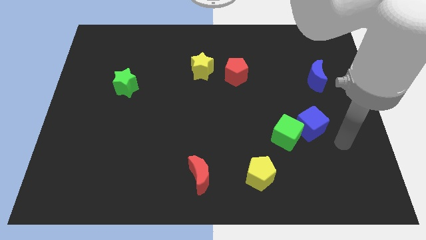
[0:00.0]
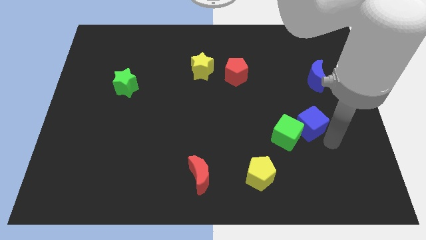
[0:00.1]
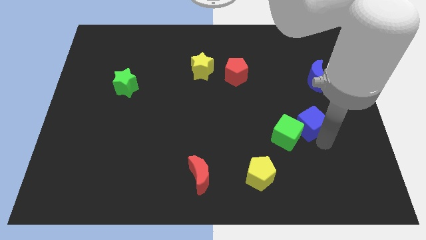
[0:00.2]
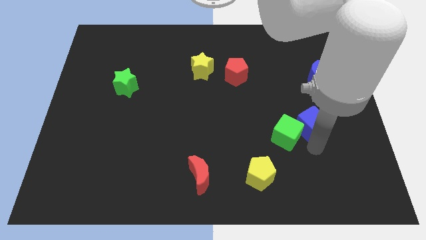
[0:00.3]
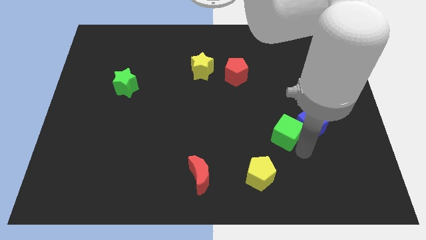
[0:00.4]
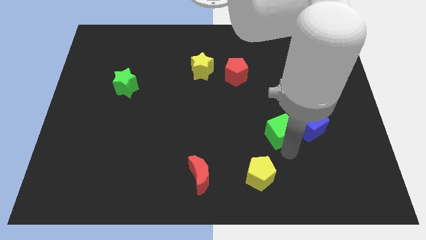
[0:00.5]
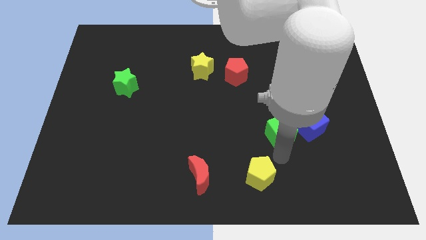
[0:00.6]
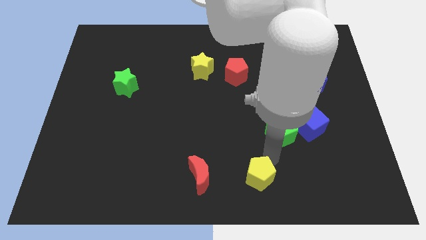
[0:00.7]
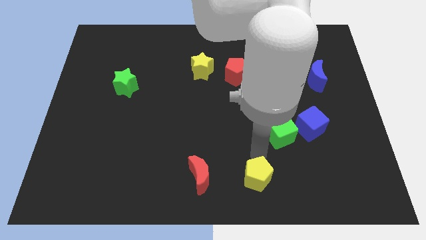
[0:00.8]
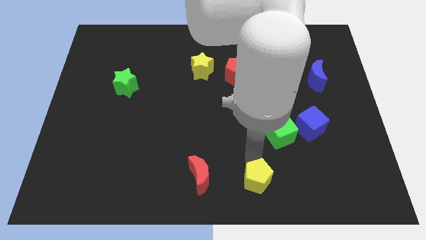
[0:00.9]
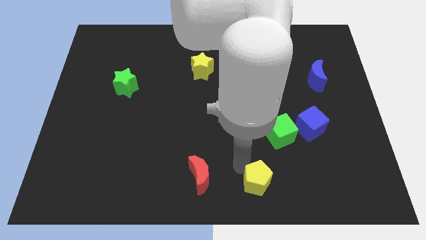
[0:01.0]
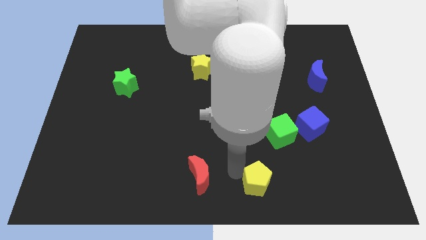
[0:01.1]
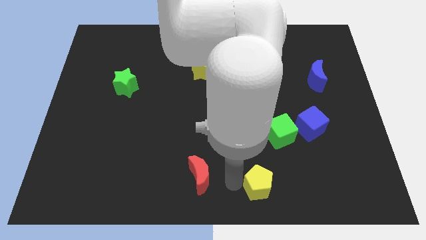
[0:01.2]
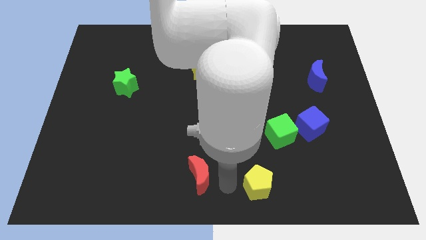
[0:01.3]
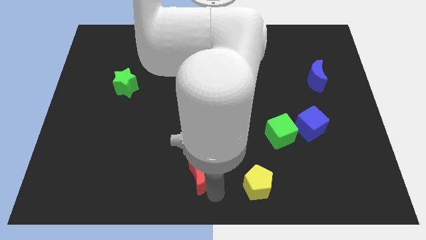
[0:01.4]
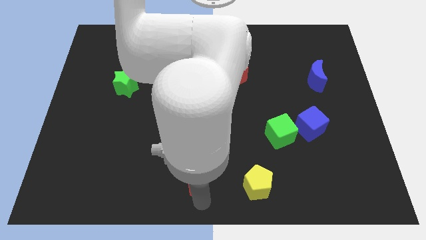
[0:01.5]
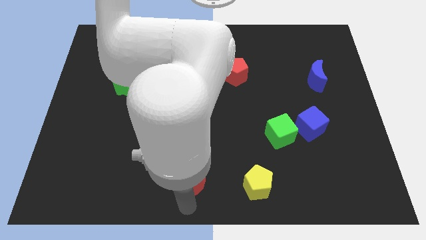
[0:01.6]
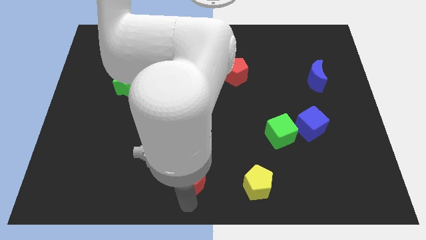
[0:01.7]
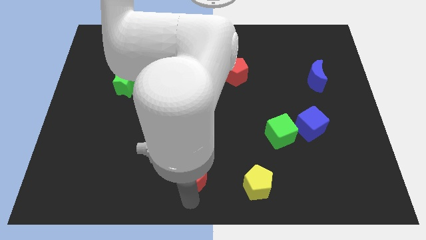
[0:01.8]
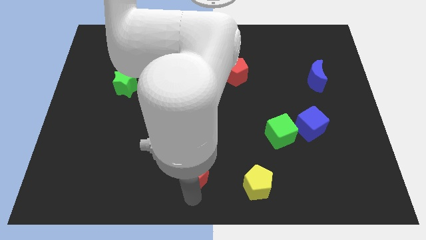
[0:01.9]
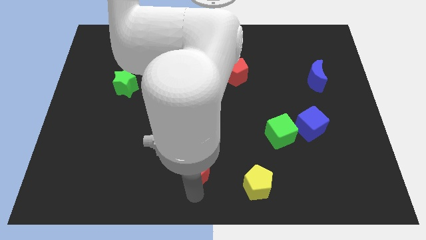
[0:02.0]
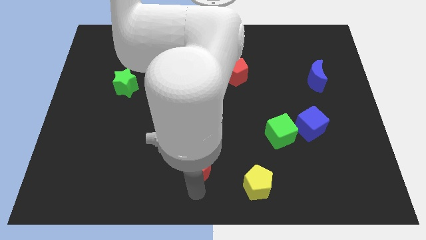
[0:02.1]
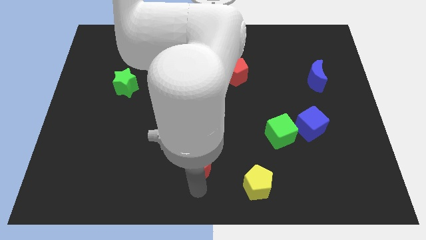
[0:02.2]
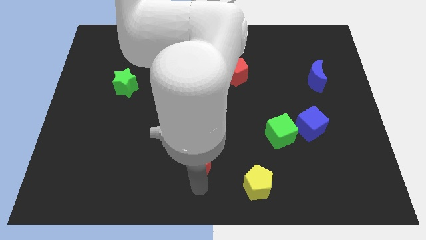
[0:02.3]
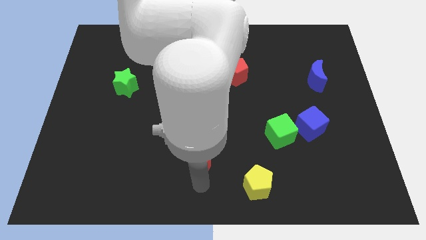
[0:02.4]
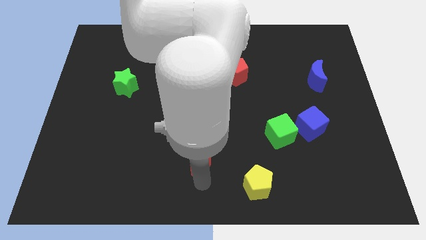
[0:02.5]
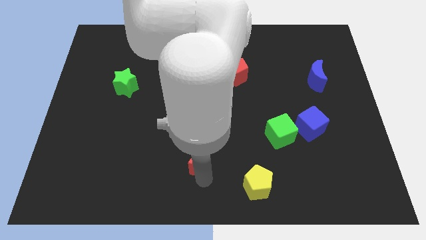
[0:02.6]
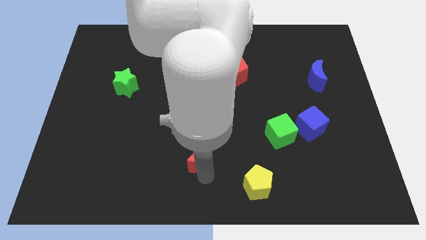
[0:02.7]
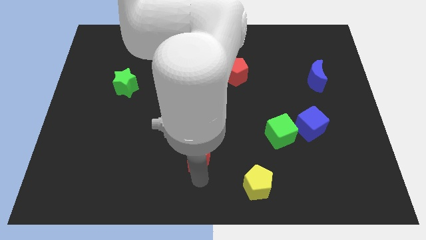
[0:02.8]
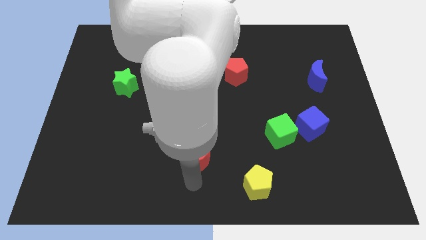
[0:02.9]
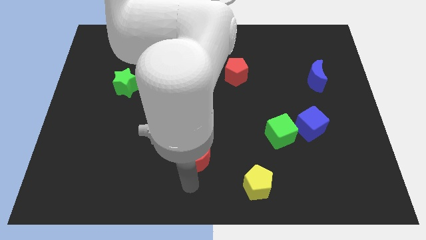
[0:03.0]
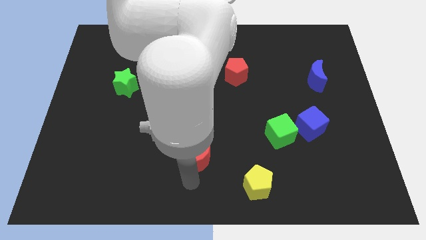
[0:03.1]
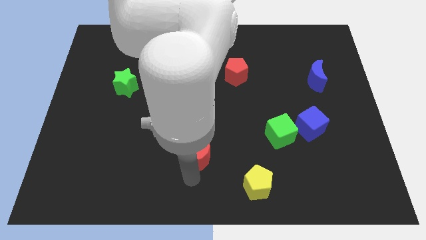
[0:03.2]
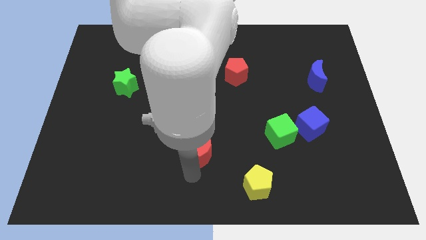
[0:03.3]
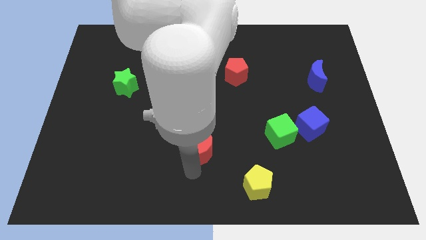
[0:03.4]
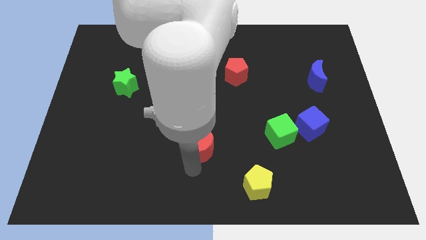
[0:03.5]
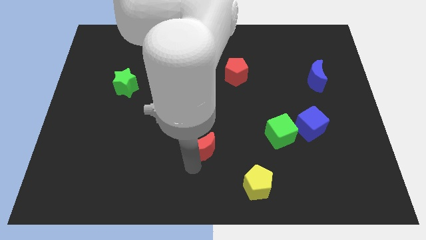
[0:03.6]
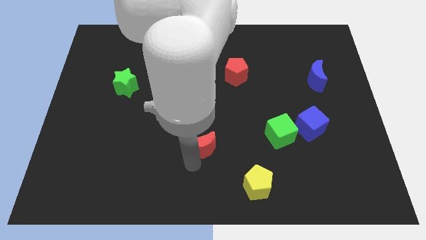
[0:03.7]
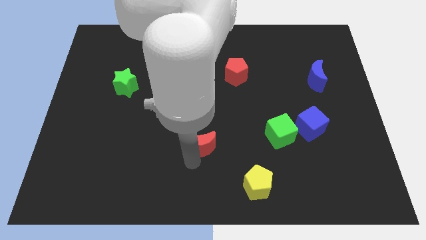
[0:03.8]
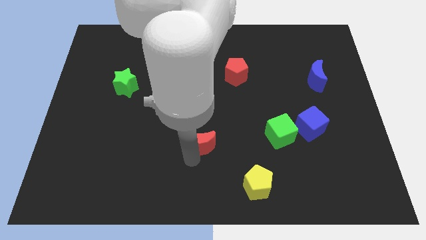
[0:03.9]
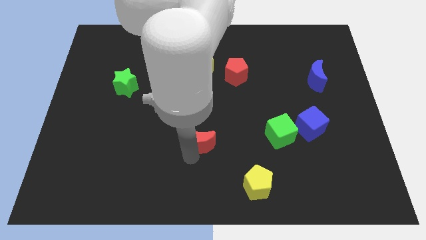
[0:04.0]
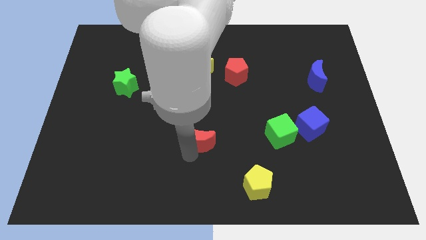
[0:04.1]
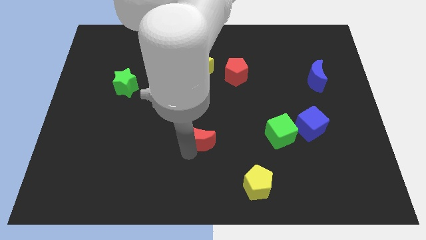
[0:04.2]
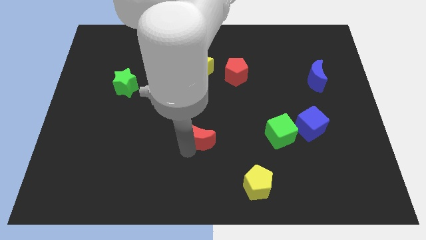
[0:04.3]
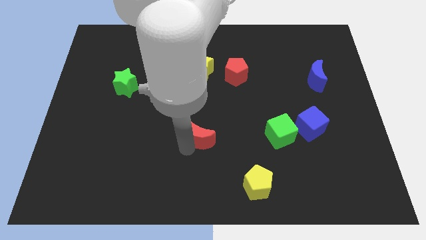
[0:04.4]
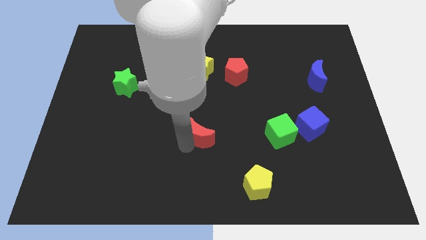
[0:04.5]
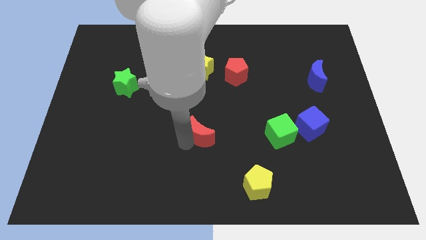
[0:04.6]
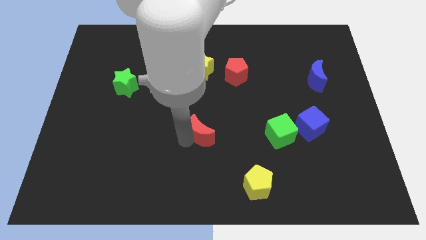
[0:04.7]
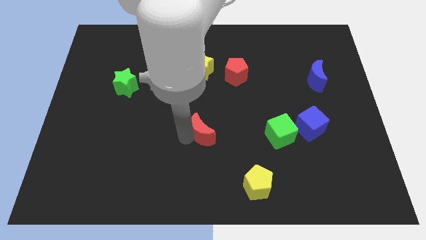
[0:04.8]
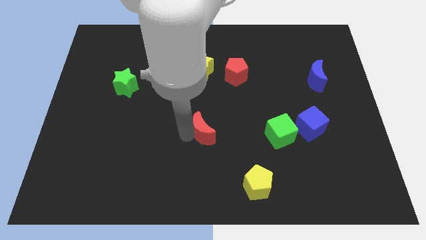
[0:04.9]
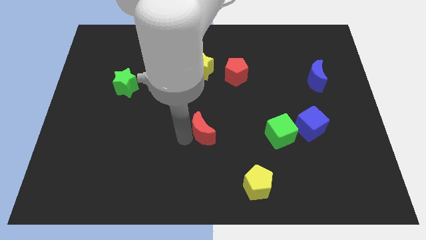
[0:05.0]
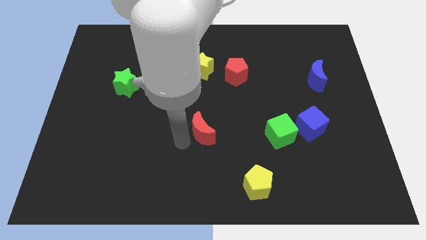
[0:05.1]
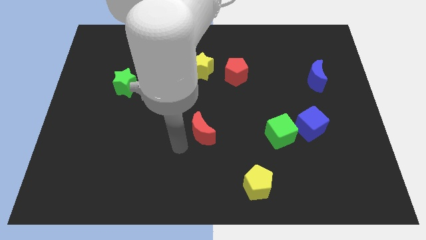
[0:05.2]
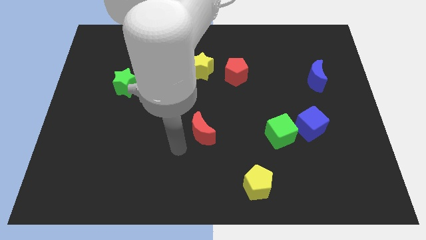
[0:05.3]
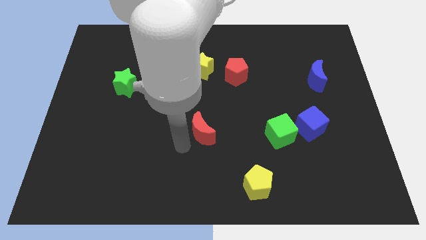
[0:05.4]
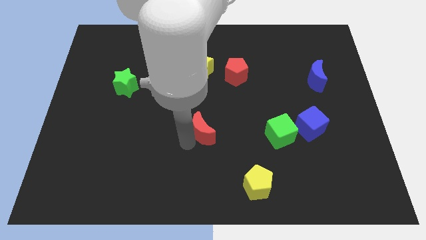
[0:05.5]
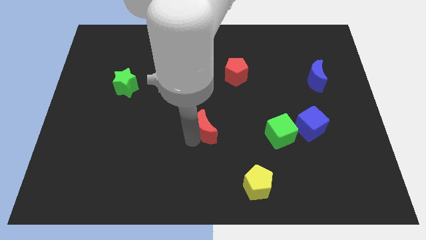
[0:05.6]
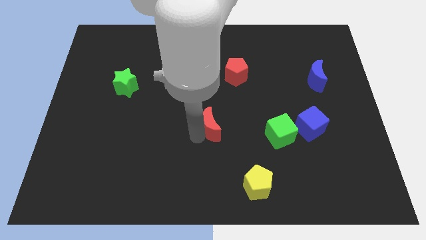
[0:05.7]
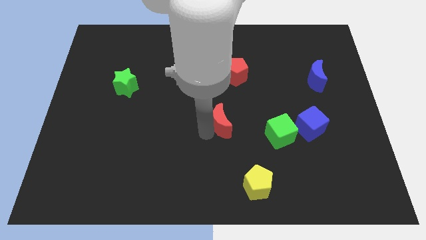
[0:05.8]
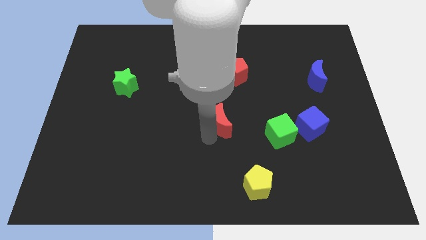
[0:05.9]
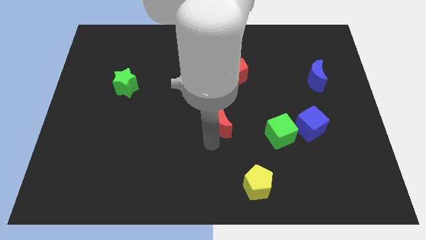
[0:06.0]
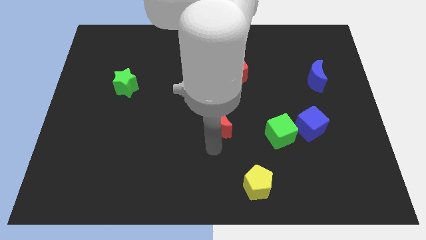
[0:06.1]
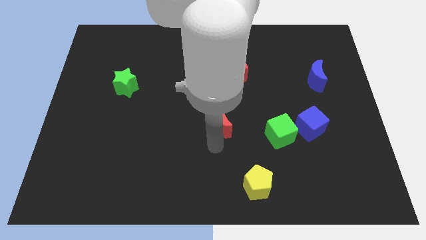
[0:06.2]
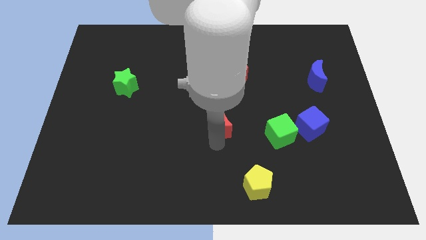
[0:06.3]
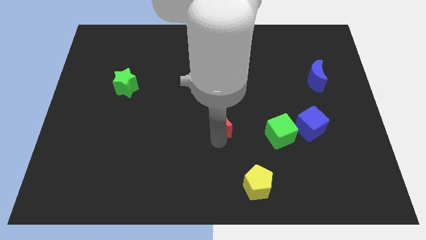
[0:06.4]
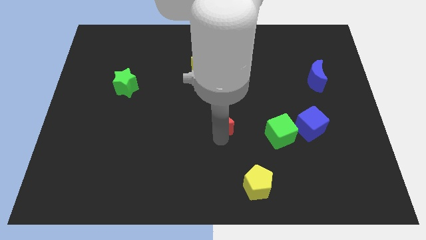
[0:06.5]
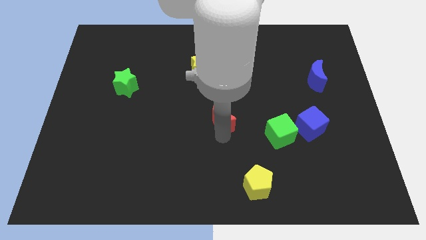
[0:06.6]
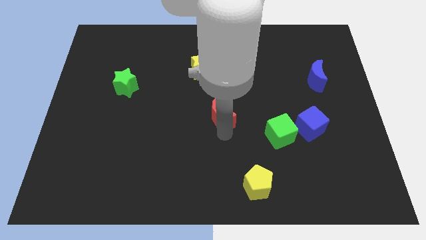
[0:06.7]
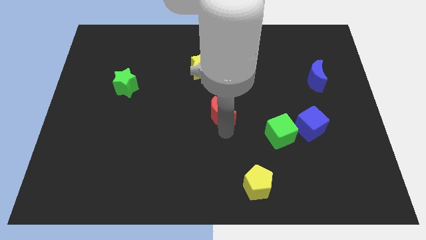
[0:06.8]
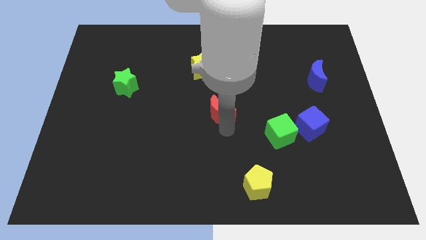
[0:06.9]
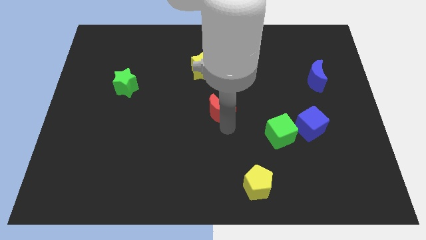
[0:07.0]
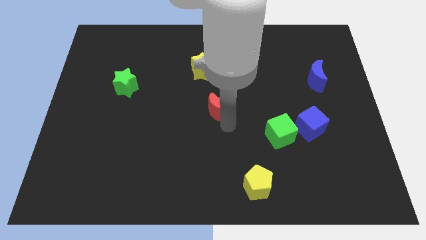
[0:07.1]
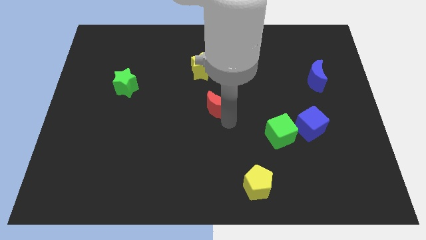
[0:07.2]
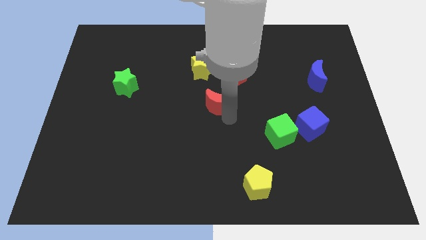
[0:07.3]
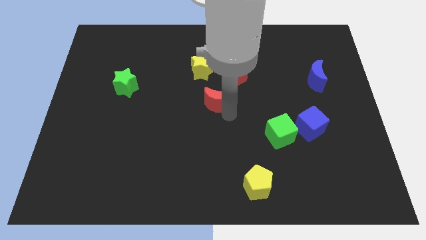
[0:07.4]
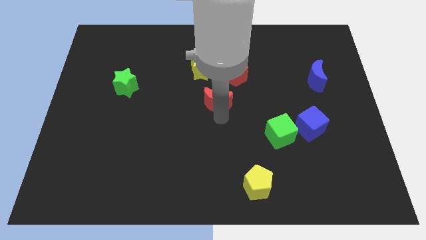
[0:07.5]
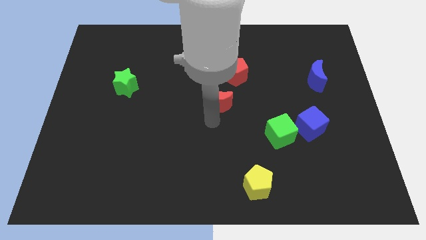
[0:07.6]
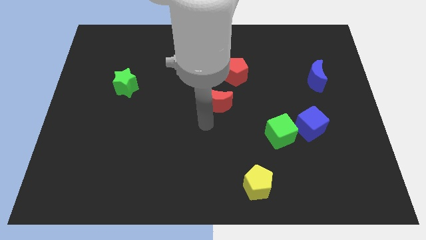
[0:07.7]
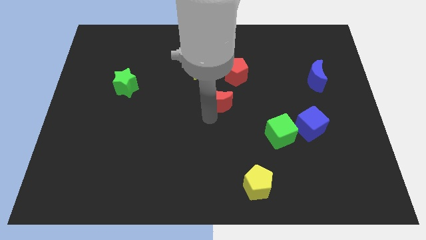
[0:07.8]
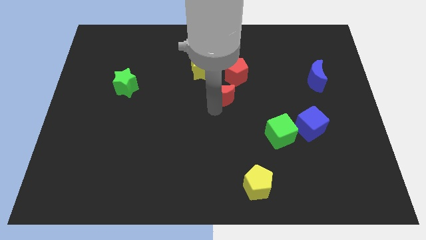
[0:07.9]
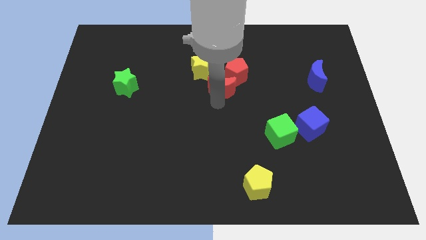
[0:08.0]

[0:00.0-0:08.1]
put the red moon close to the red pentagon
